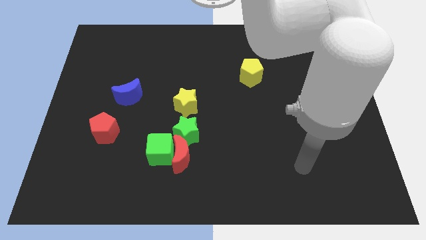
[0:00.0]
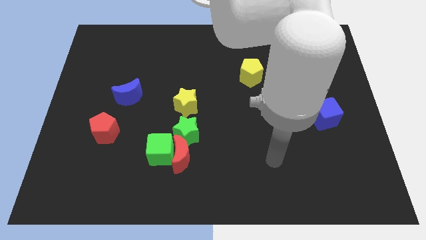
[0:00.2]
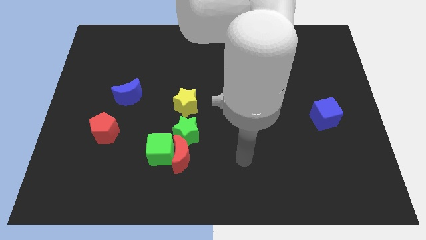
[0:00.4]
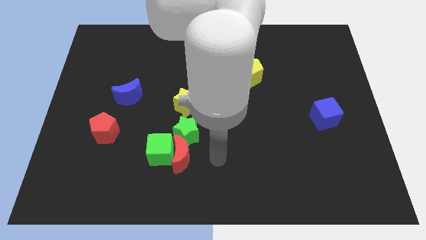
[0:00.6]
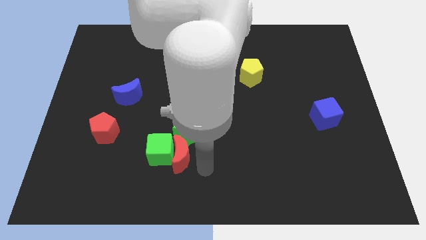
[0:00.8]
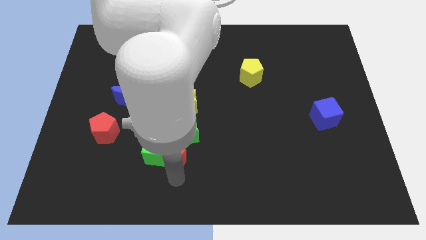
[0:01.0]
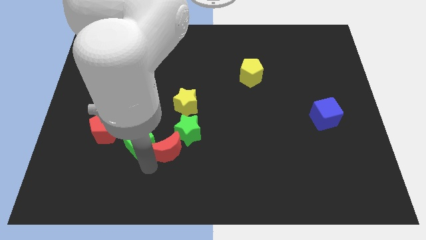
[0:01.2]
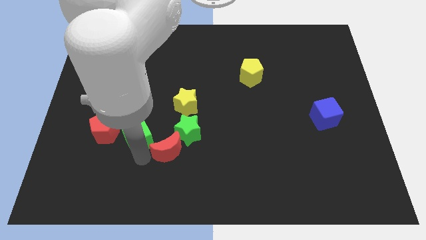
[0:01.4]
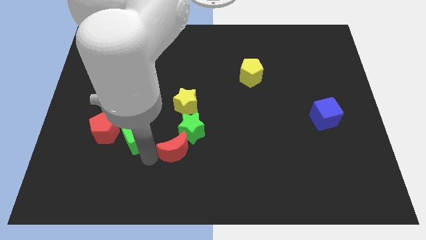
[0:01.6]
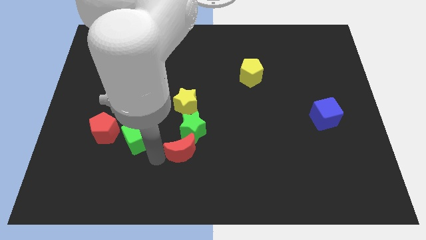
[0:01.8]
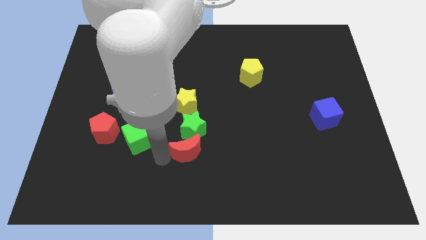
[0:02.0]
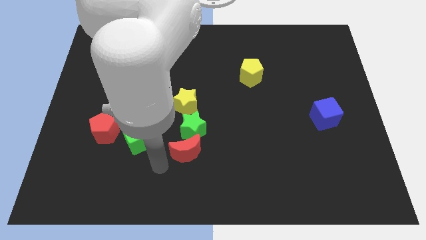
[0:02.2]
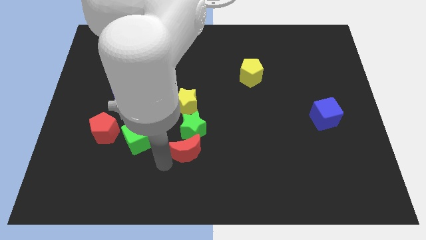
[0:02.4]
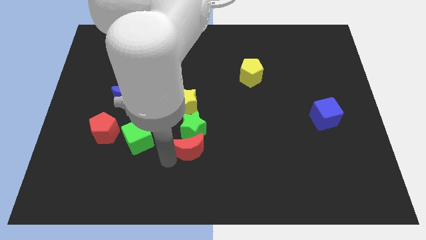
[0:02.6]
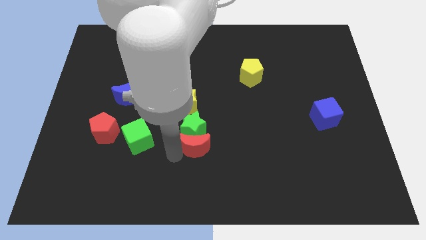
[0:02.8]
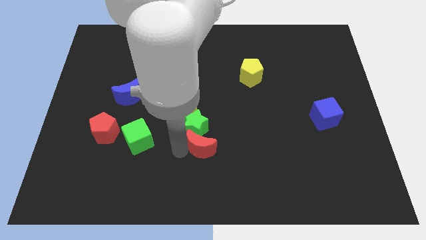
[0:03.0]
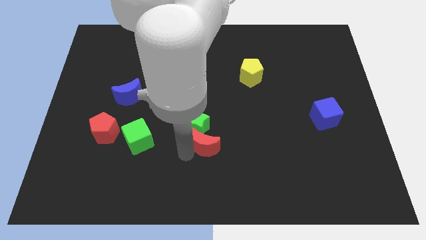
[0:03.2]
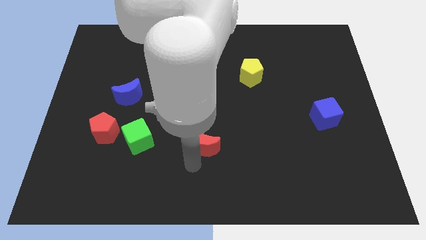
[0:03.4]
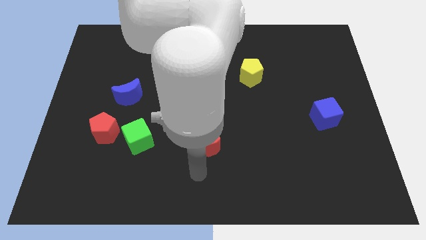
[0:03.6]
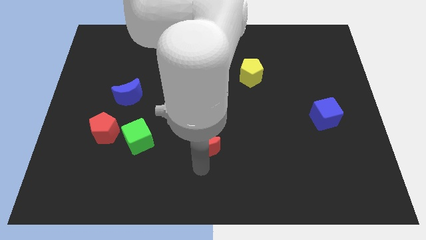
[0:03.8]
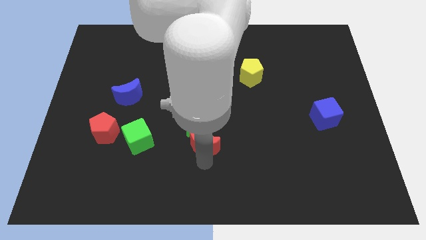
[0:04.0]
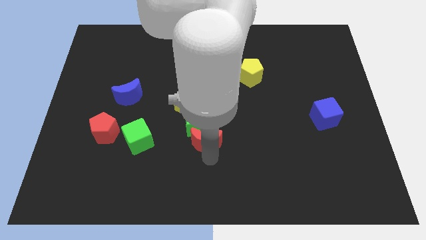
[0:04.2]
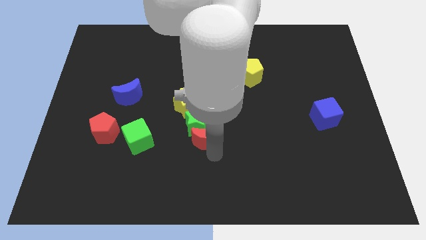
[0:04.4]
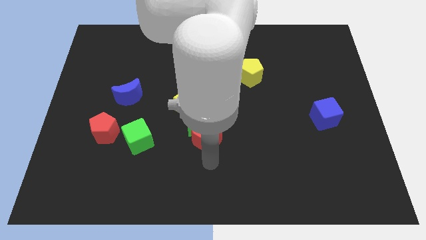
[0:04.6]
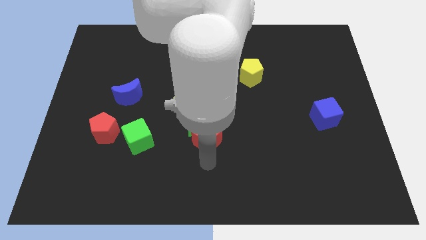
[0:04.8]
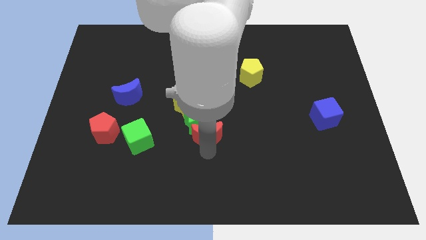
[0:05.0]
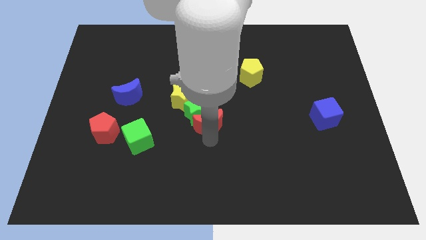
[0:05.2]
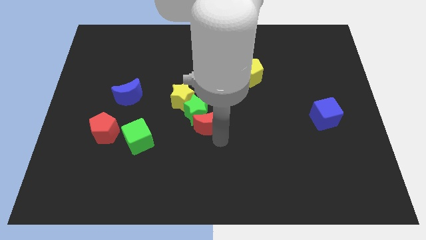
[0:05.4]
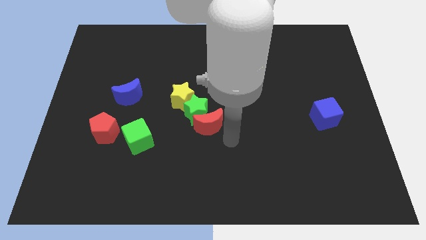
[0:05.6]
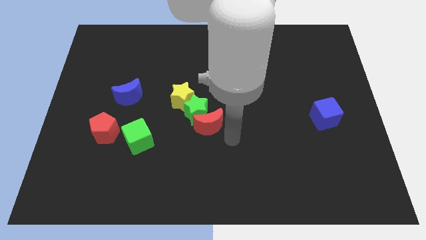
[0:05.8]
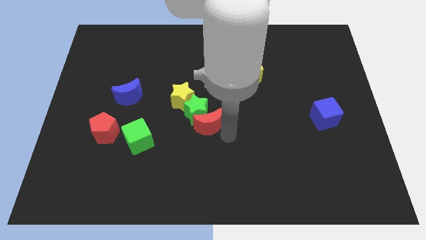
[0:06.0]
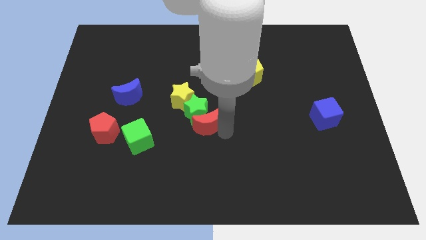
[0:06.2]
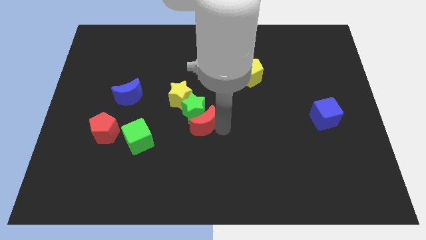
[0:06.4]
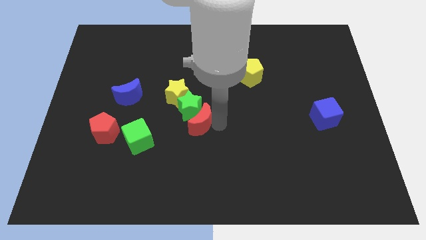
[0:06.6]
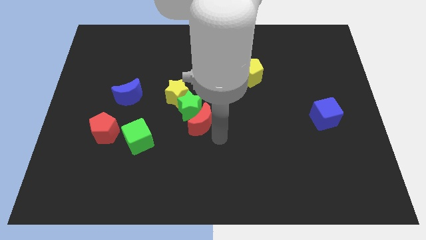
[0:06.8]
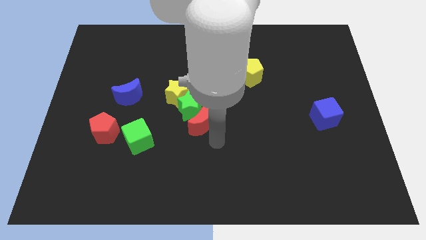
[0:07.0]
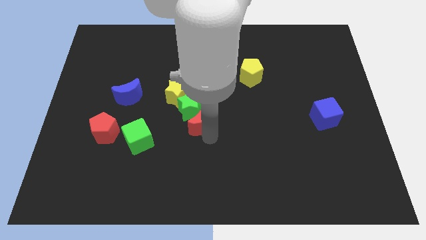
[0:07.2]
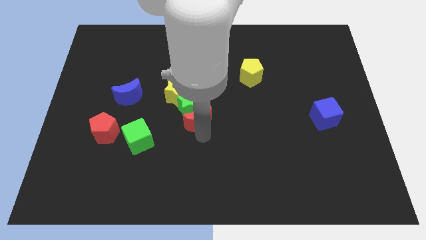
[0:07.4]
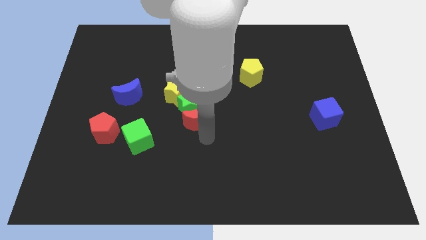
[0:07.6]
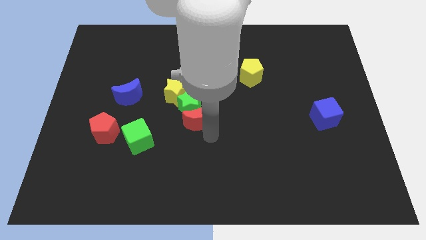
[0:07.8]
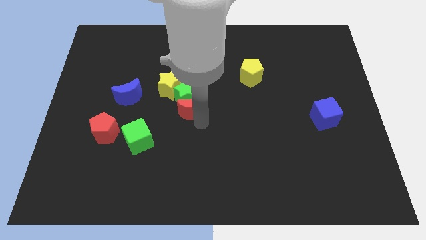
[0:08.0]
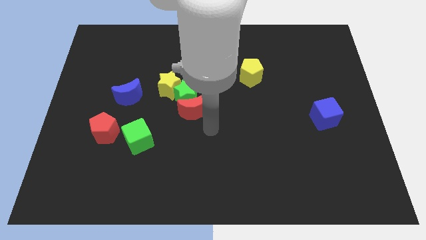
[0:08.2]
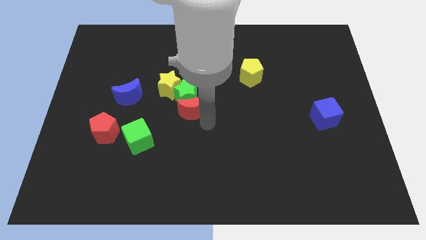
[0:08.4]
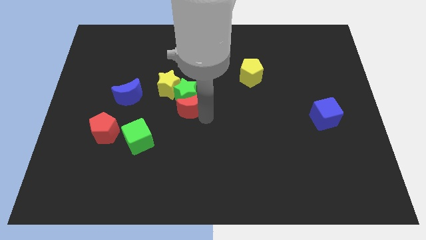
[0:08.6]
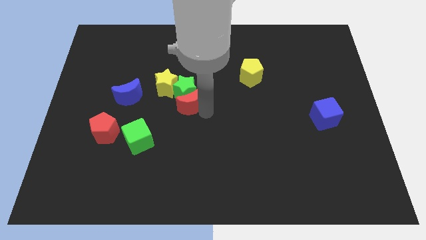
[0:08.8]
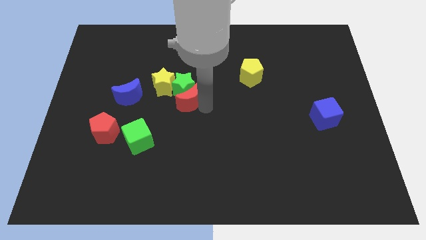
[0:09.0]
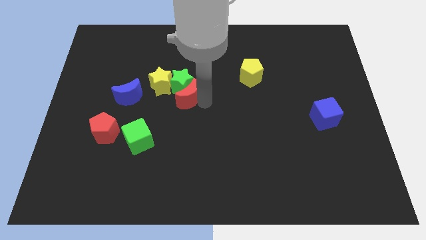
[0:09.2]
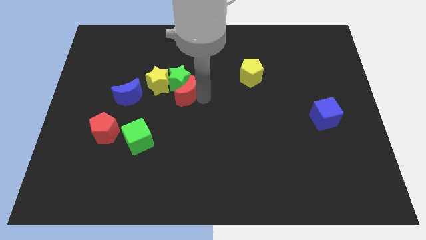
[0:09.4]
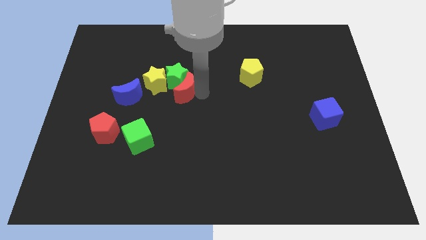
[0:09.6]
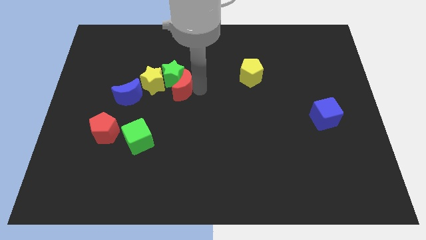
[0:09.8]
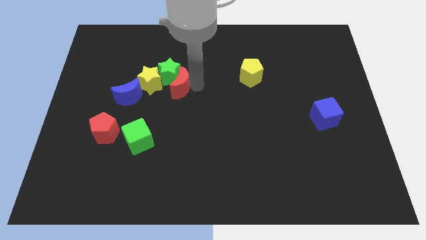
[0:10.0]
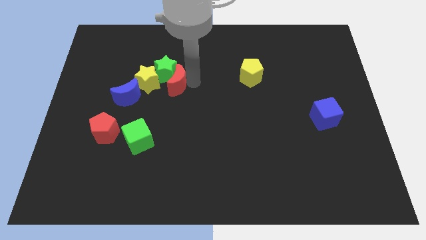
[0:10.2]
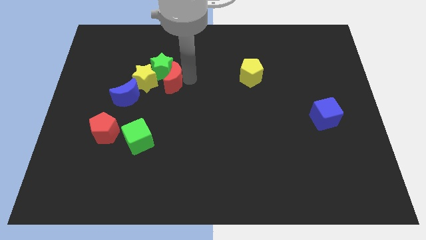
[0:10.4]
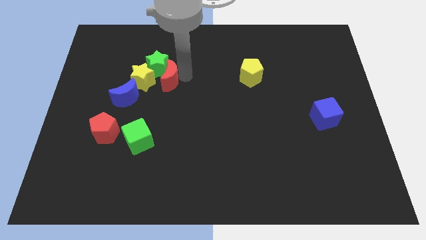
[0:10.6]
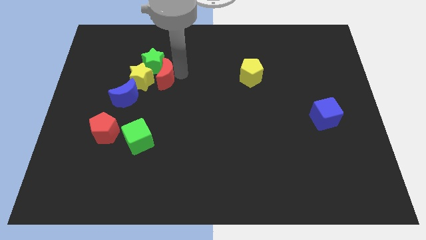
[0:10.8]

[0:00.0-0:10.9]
push the red moon to the yellow star

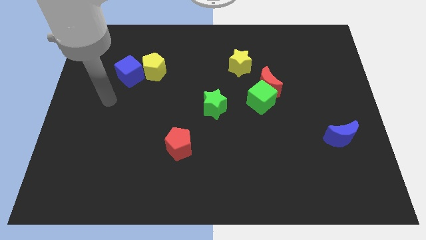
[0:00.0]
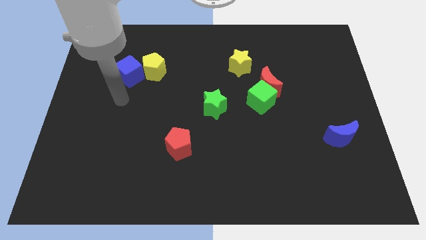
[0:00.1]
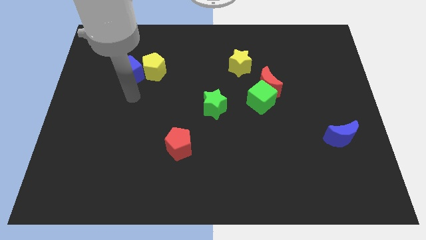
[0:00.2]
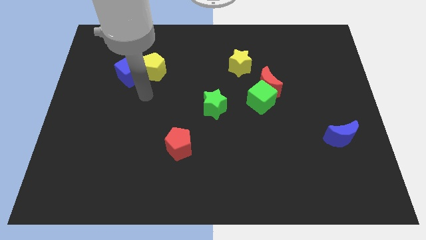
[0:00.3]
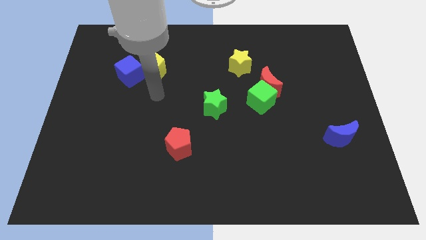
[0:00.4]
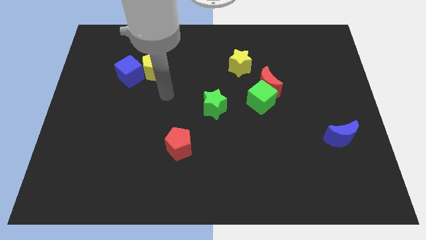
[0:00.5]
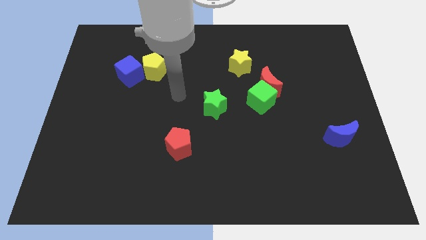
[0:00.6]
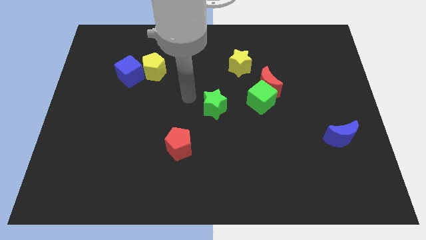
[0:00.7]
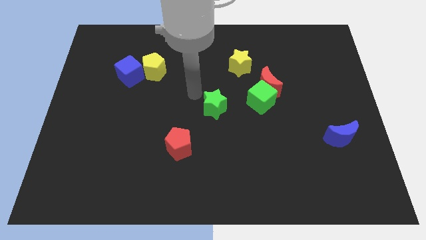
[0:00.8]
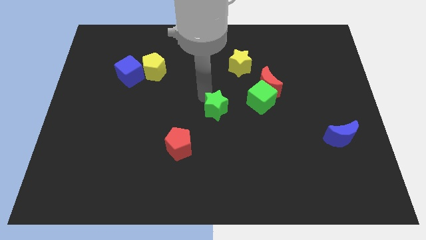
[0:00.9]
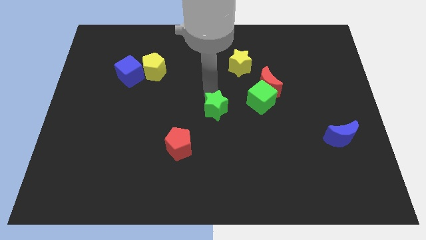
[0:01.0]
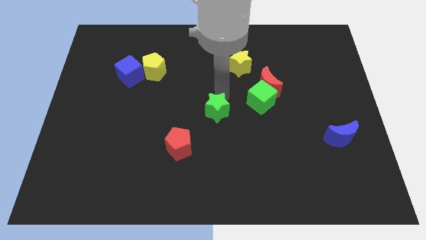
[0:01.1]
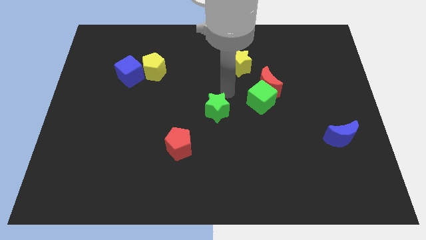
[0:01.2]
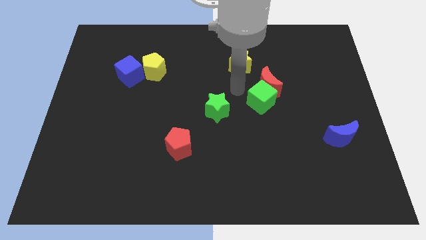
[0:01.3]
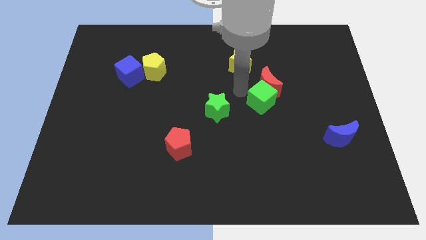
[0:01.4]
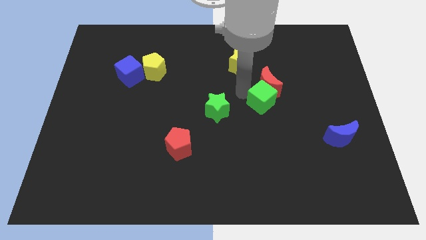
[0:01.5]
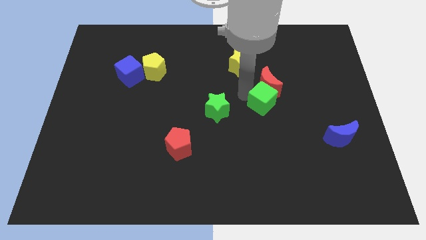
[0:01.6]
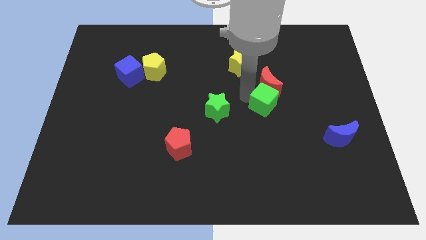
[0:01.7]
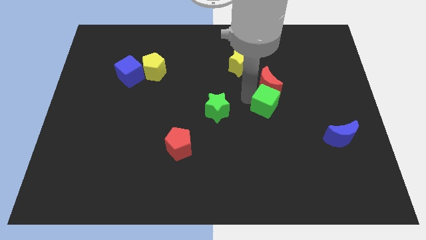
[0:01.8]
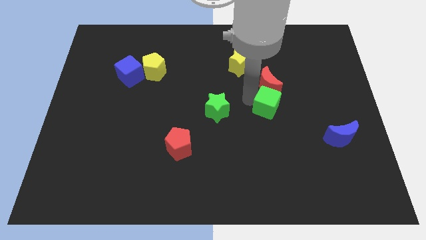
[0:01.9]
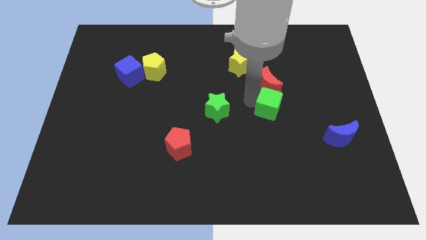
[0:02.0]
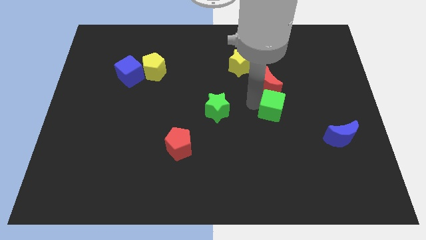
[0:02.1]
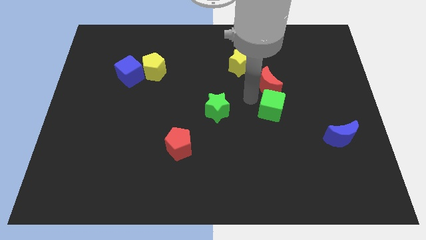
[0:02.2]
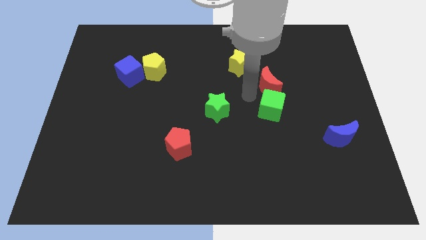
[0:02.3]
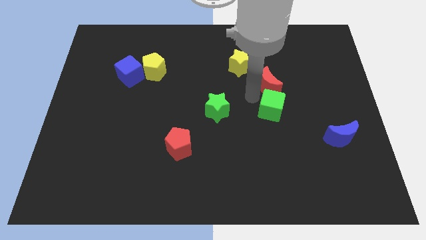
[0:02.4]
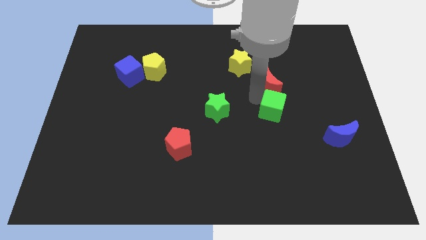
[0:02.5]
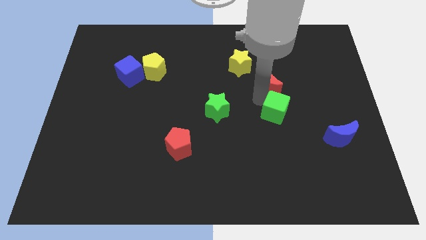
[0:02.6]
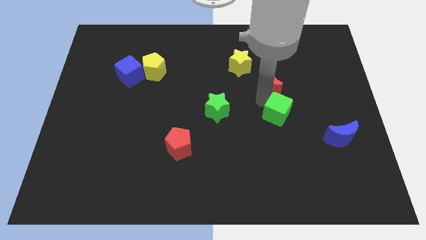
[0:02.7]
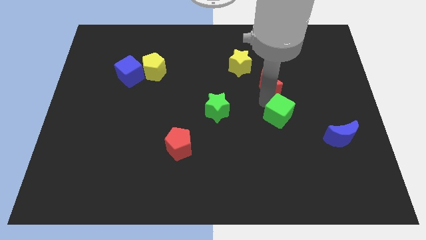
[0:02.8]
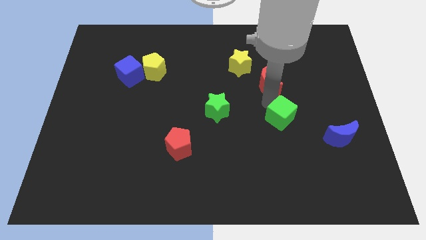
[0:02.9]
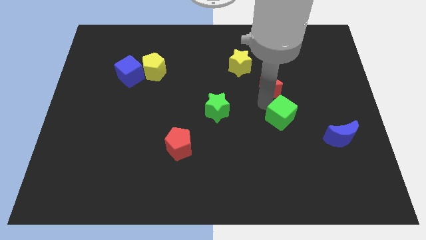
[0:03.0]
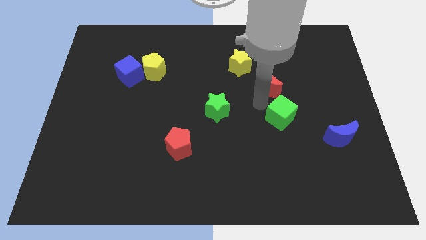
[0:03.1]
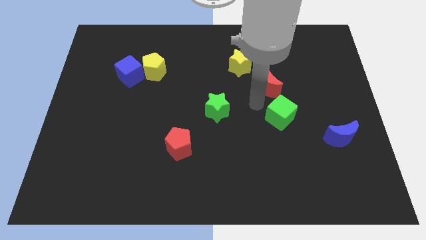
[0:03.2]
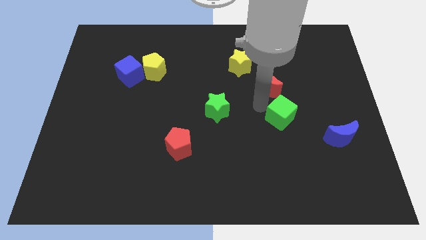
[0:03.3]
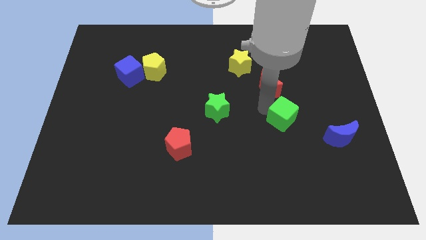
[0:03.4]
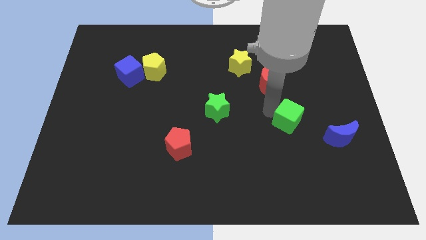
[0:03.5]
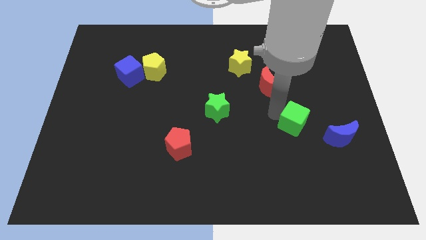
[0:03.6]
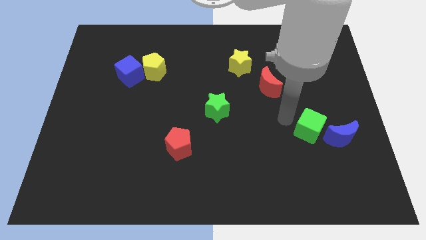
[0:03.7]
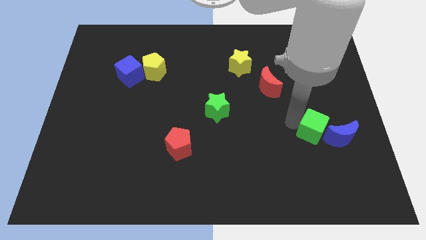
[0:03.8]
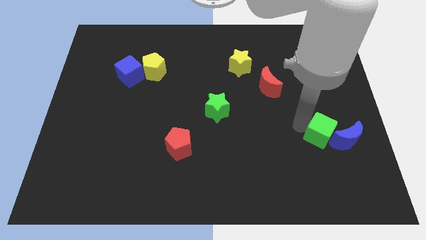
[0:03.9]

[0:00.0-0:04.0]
push the green cube close to the blue moon
